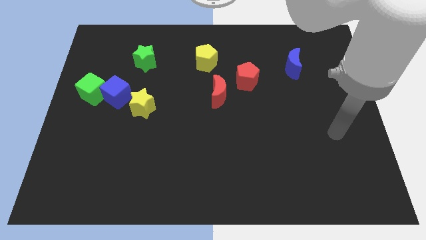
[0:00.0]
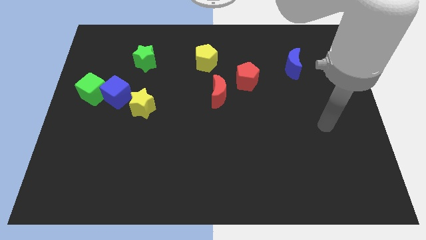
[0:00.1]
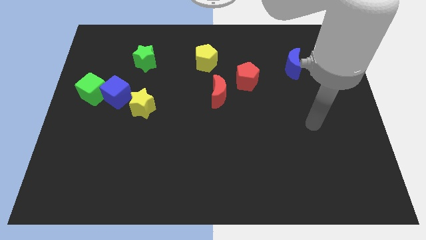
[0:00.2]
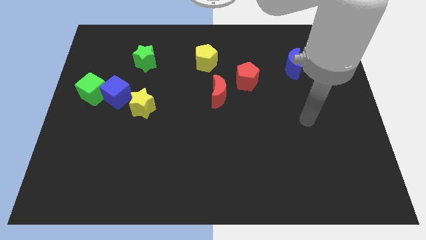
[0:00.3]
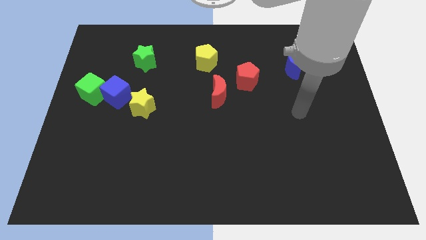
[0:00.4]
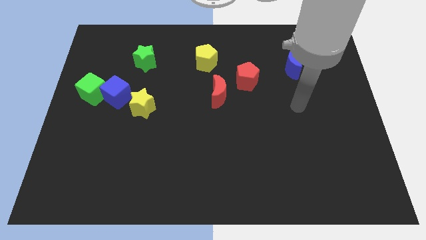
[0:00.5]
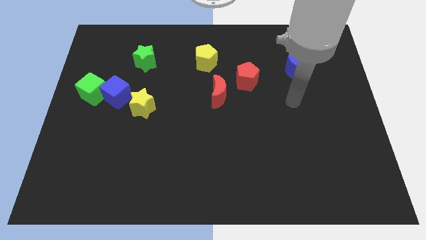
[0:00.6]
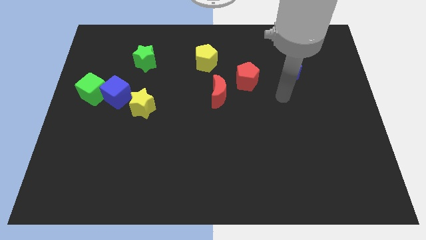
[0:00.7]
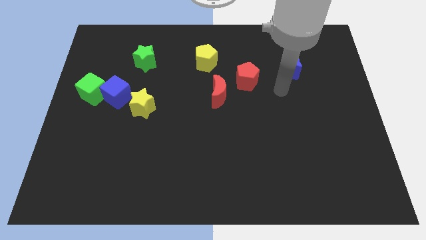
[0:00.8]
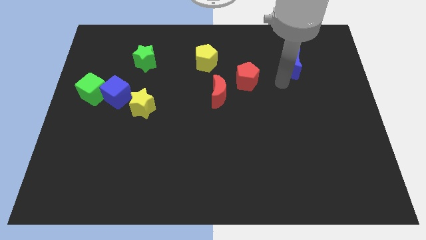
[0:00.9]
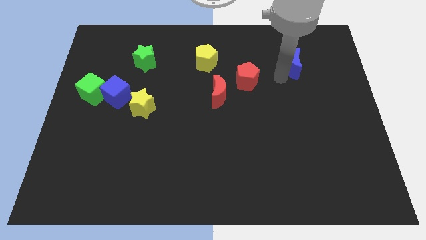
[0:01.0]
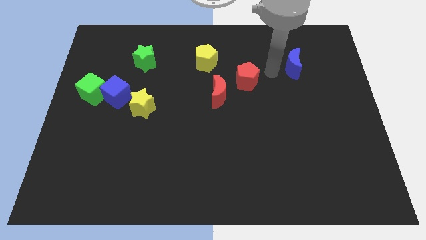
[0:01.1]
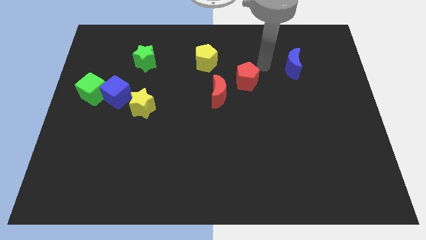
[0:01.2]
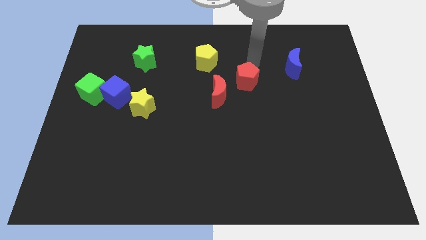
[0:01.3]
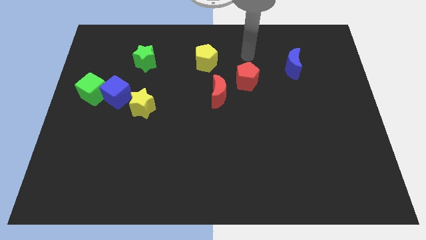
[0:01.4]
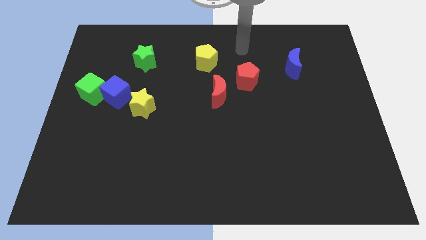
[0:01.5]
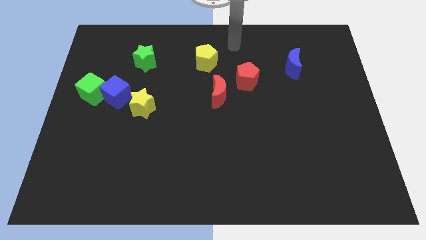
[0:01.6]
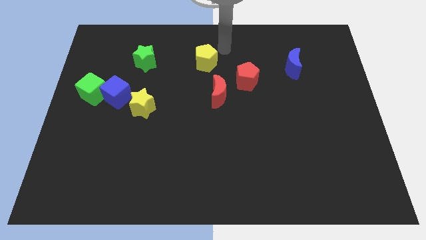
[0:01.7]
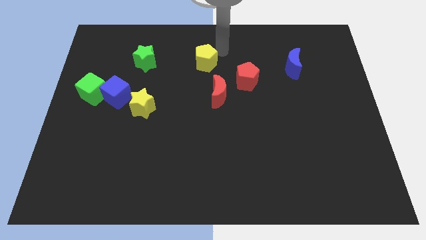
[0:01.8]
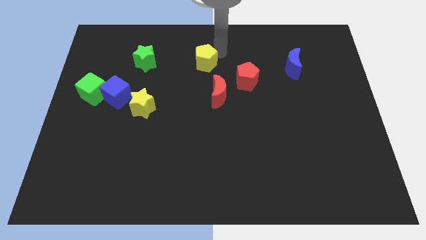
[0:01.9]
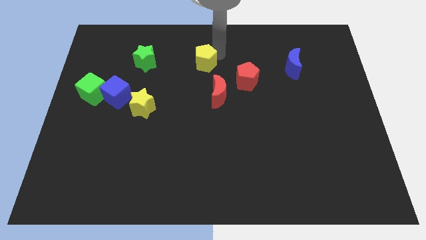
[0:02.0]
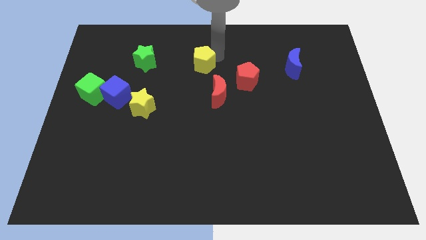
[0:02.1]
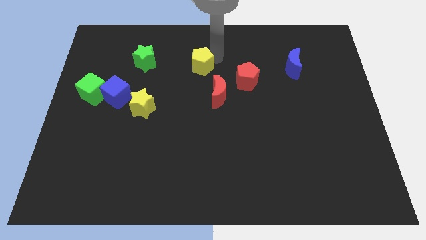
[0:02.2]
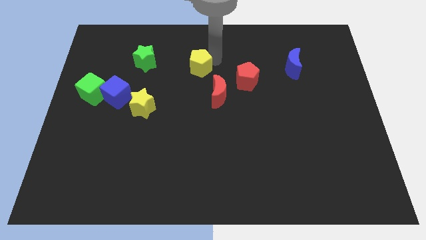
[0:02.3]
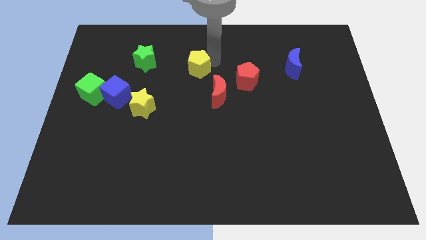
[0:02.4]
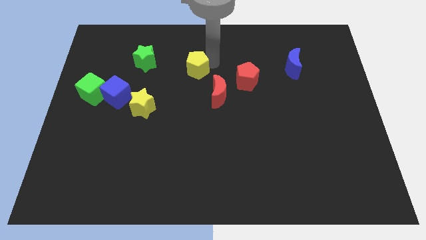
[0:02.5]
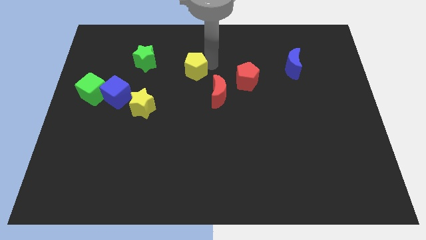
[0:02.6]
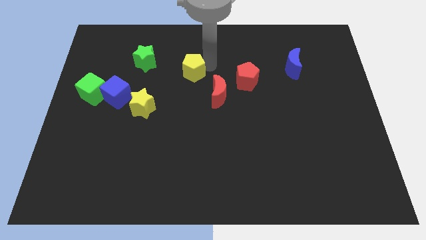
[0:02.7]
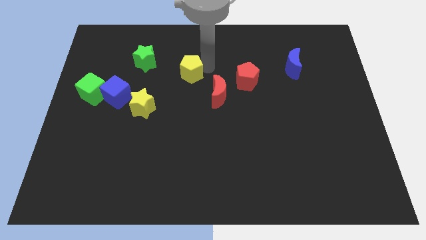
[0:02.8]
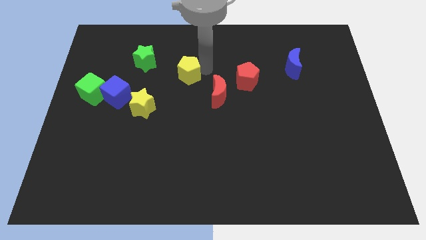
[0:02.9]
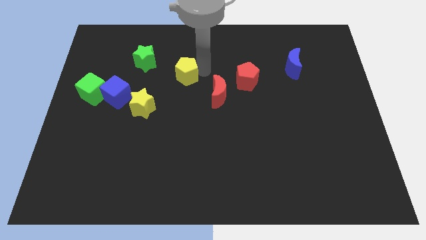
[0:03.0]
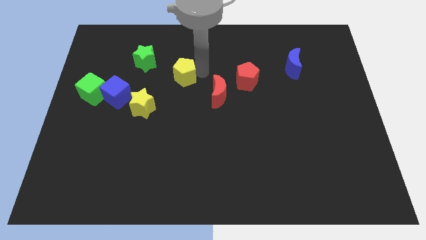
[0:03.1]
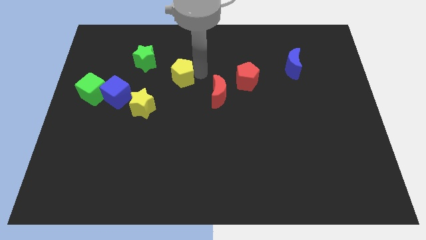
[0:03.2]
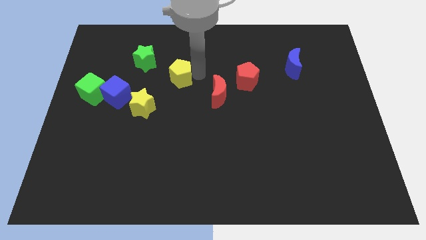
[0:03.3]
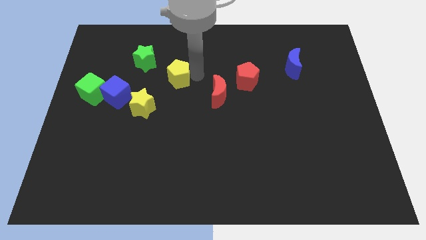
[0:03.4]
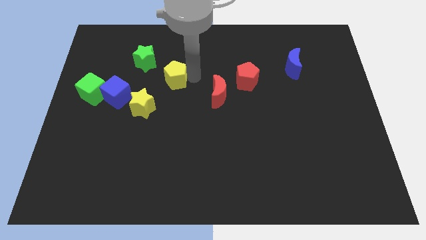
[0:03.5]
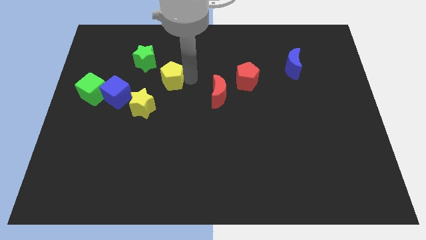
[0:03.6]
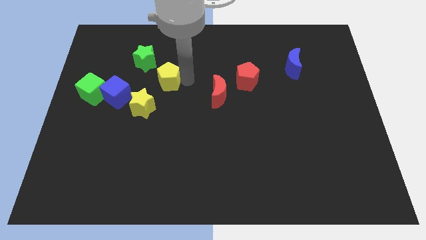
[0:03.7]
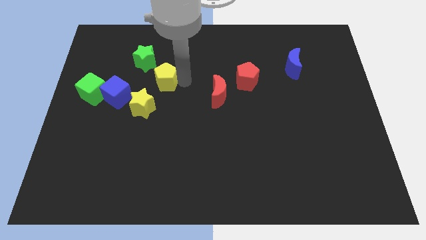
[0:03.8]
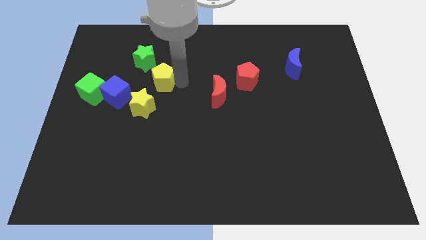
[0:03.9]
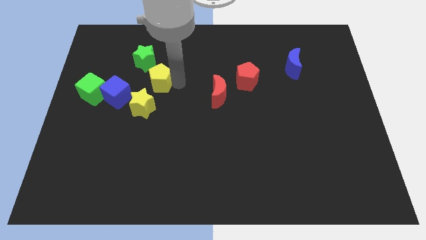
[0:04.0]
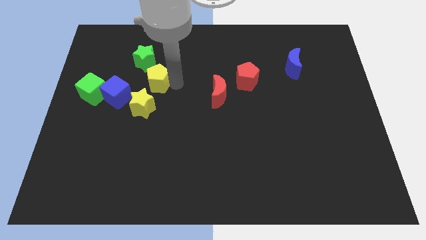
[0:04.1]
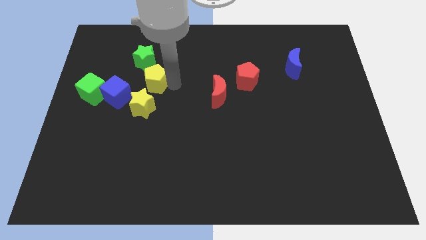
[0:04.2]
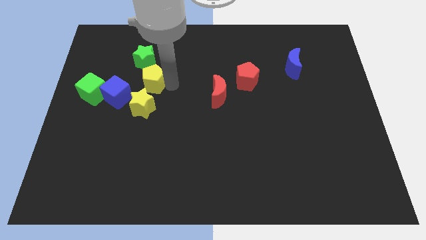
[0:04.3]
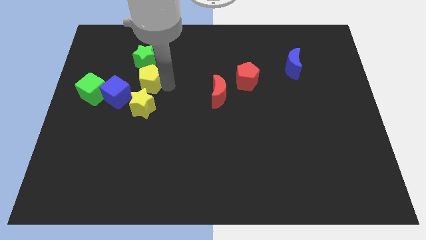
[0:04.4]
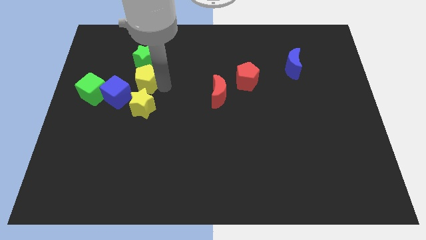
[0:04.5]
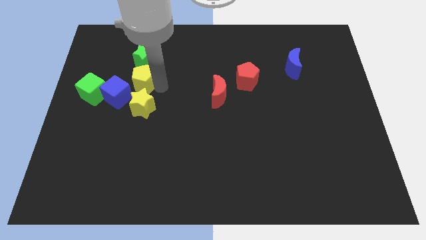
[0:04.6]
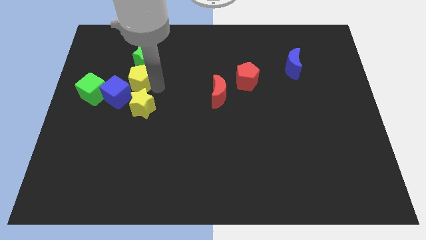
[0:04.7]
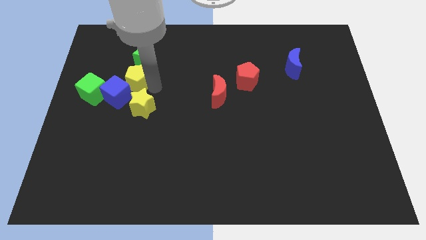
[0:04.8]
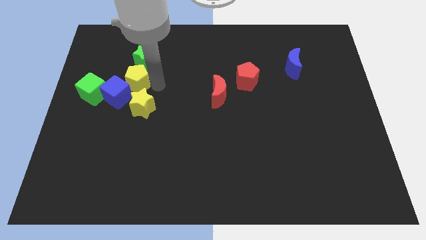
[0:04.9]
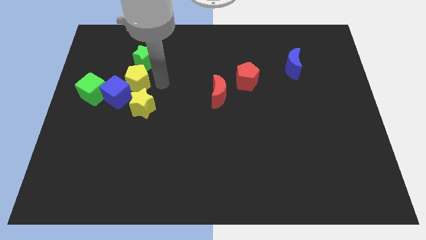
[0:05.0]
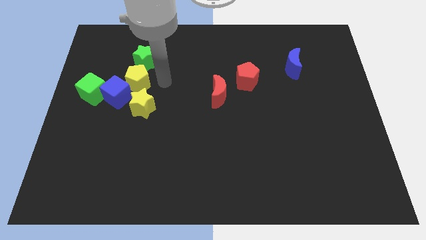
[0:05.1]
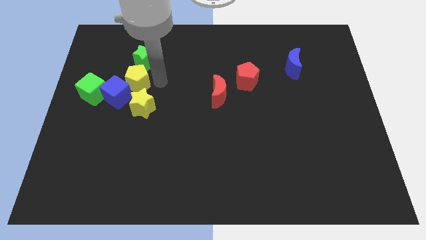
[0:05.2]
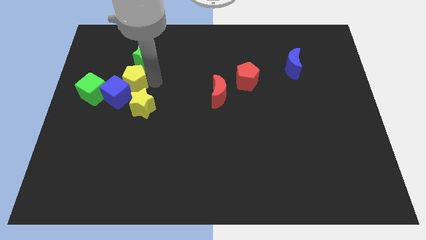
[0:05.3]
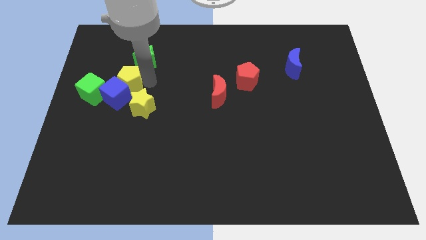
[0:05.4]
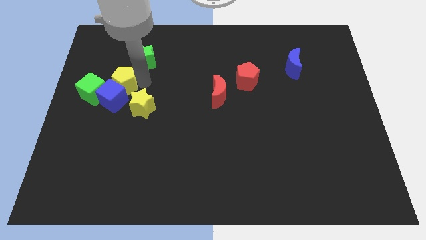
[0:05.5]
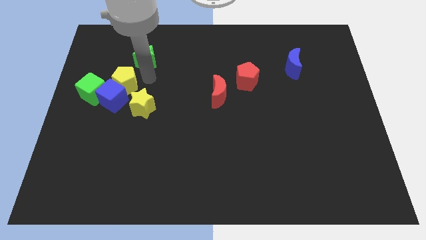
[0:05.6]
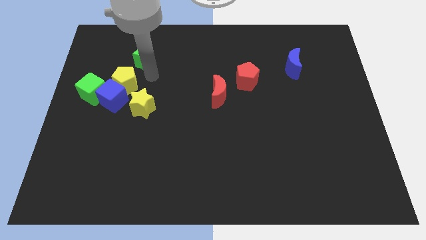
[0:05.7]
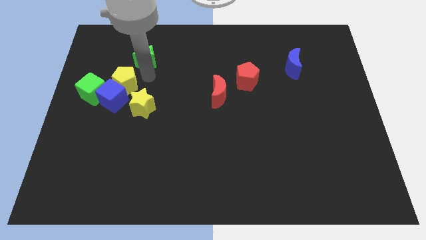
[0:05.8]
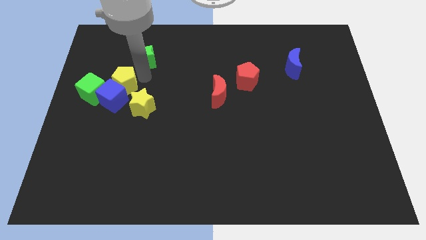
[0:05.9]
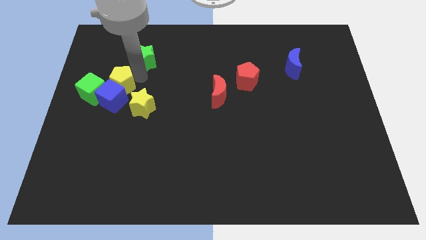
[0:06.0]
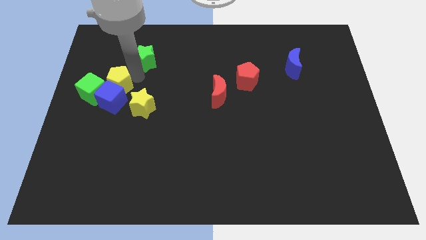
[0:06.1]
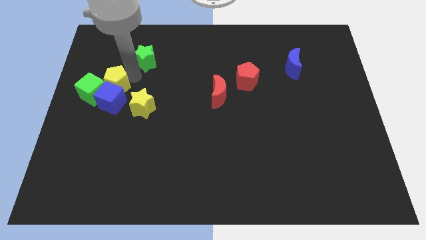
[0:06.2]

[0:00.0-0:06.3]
slide the yellow pentagon close to the green cube

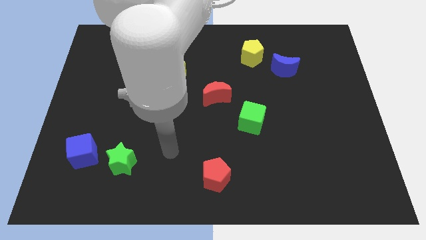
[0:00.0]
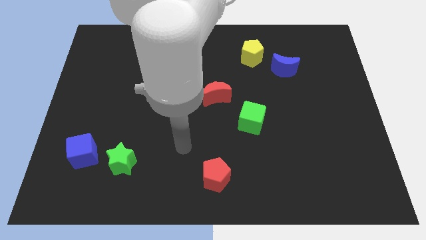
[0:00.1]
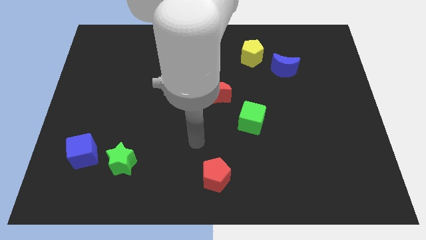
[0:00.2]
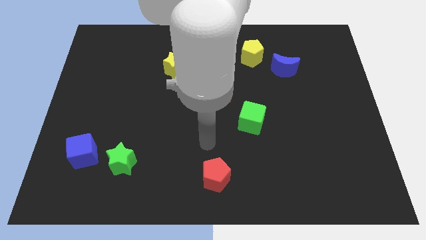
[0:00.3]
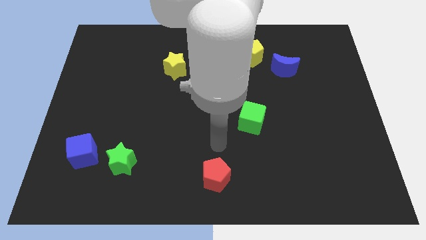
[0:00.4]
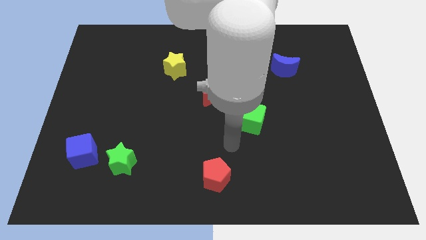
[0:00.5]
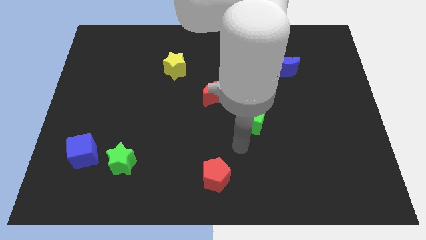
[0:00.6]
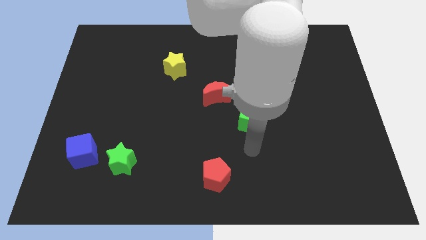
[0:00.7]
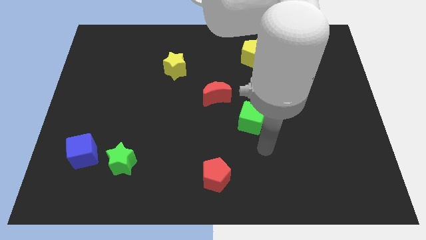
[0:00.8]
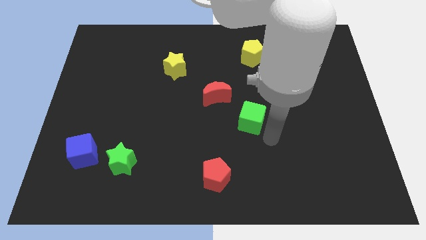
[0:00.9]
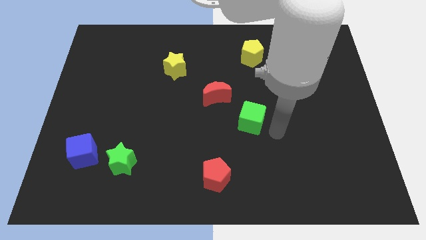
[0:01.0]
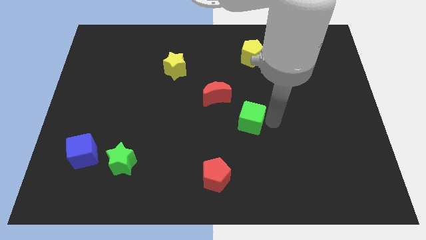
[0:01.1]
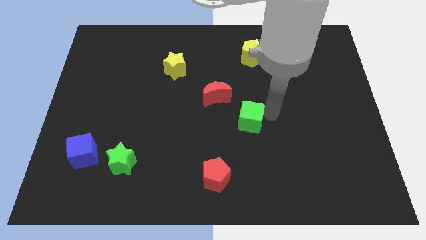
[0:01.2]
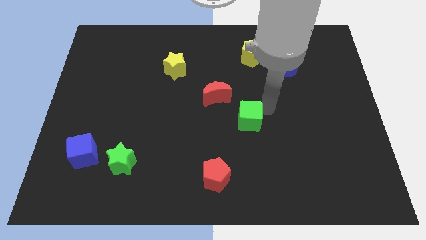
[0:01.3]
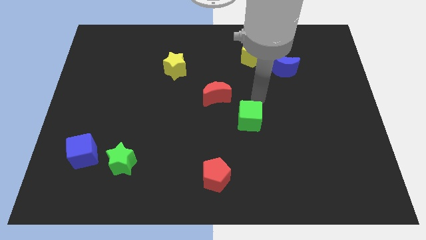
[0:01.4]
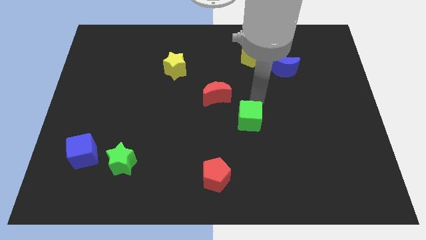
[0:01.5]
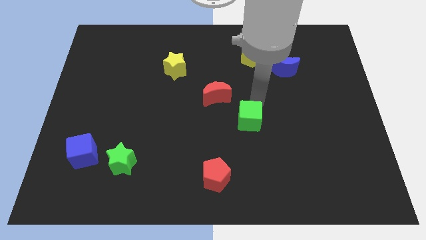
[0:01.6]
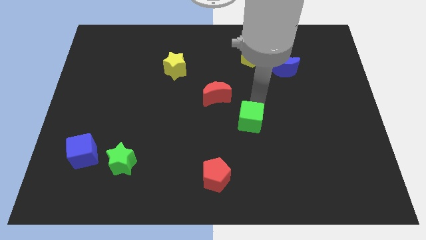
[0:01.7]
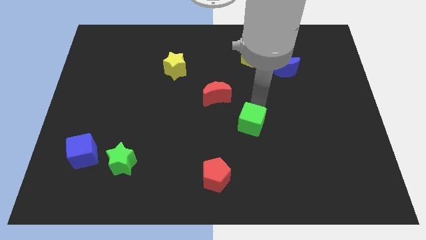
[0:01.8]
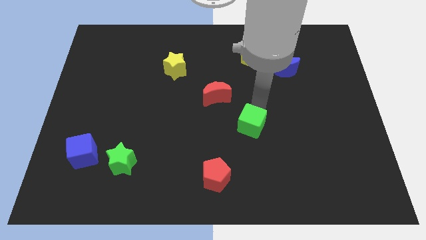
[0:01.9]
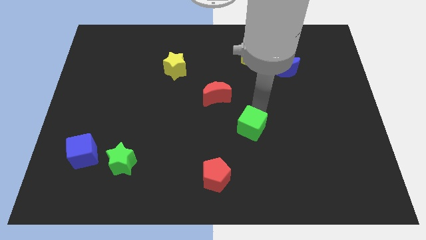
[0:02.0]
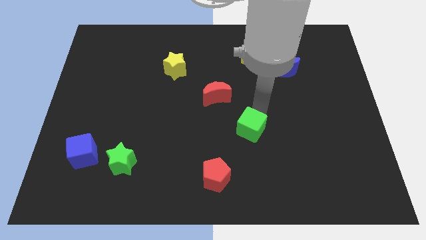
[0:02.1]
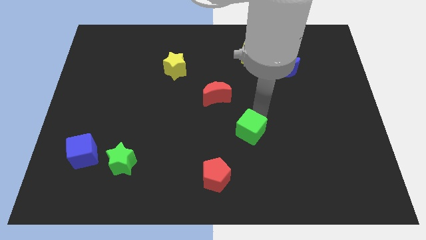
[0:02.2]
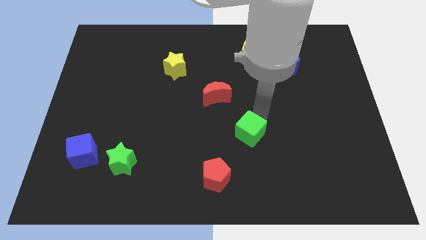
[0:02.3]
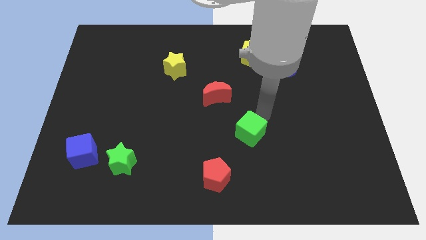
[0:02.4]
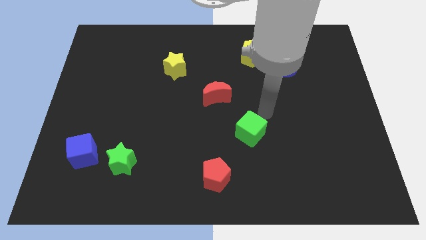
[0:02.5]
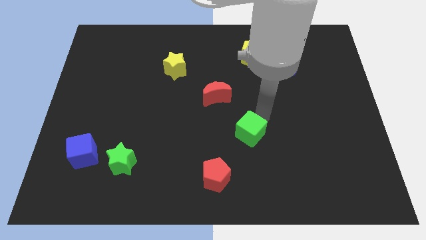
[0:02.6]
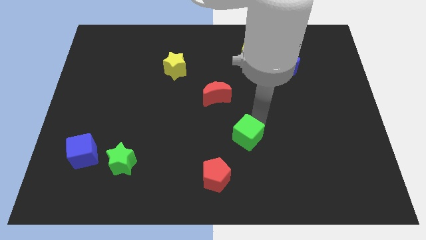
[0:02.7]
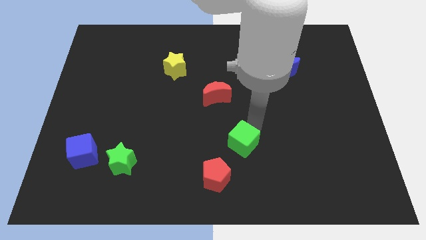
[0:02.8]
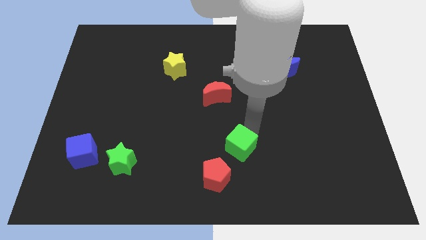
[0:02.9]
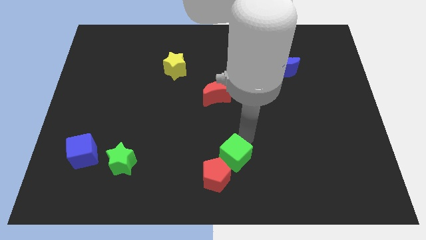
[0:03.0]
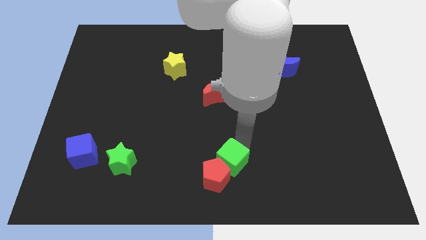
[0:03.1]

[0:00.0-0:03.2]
put the green cube towards the red pentagon
